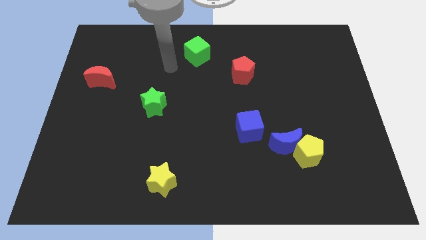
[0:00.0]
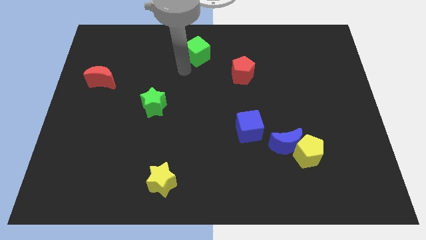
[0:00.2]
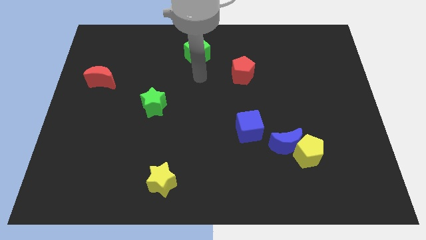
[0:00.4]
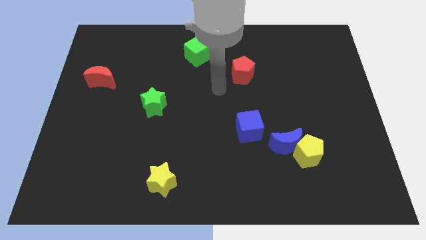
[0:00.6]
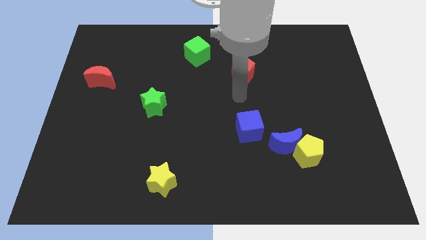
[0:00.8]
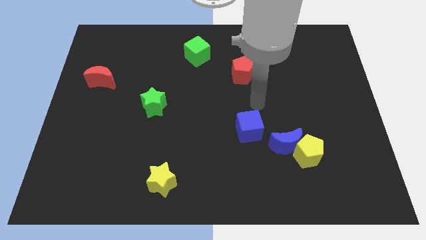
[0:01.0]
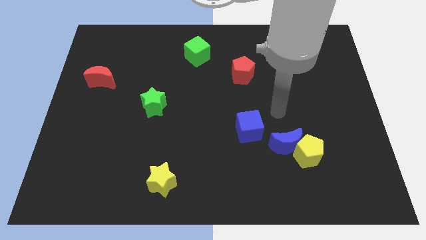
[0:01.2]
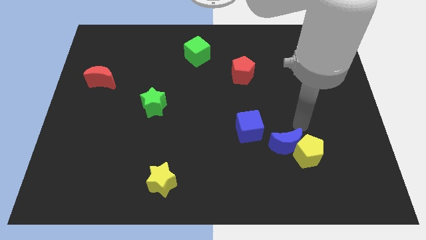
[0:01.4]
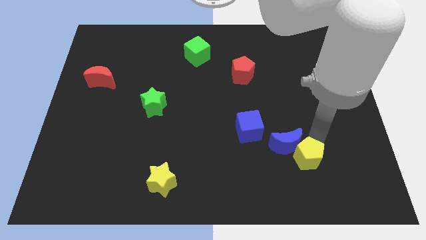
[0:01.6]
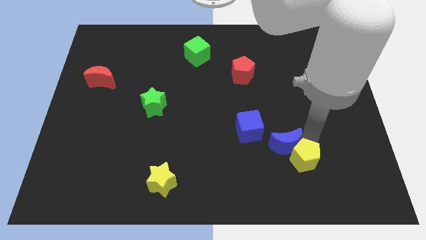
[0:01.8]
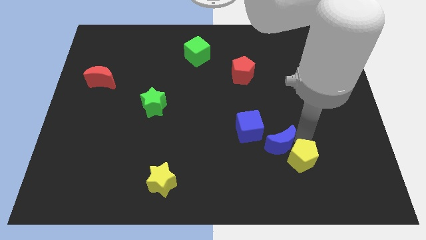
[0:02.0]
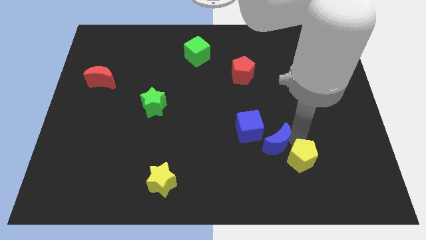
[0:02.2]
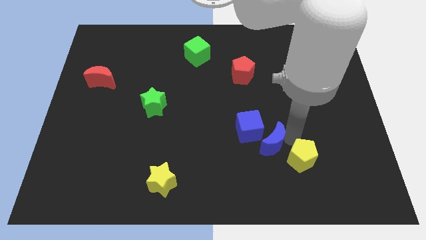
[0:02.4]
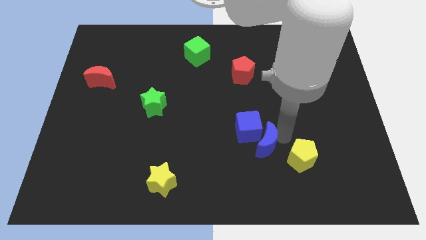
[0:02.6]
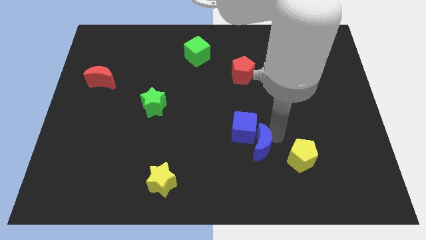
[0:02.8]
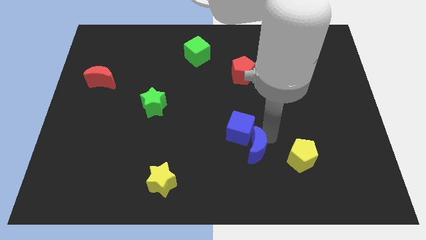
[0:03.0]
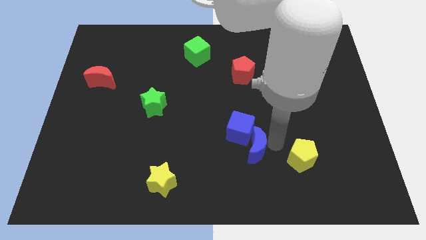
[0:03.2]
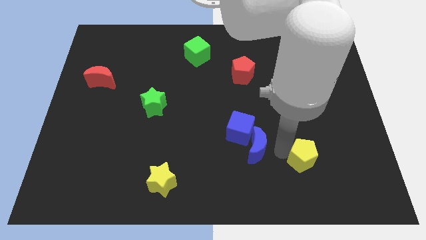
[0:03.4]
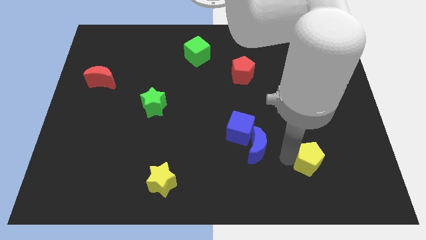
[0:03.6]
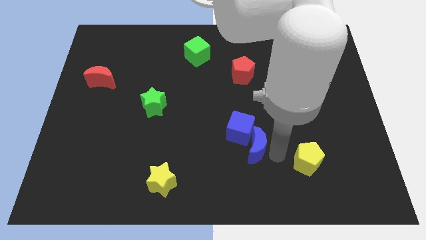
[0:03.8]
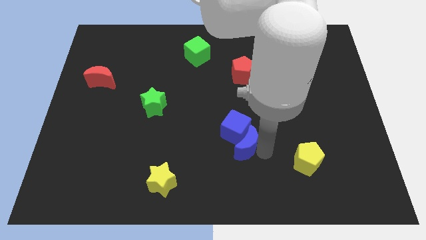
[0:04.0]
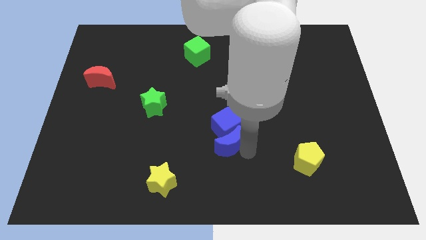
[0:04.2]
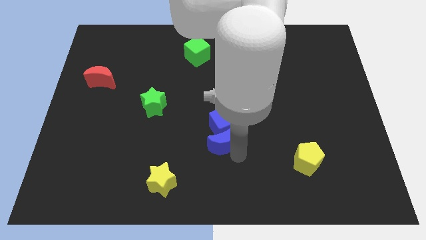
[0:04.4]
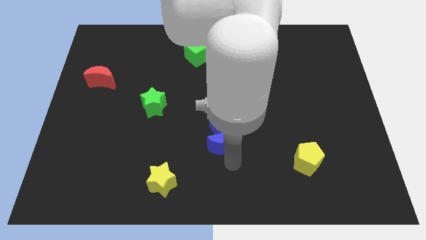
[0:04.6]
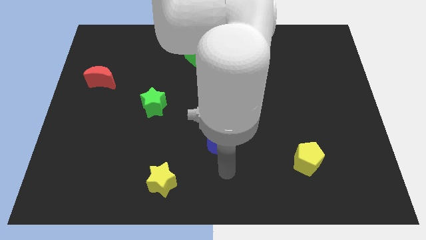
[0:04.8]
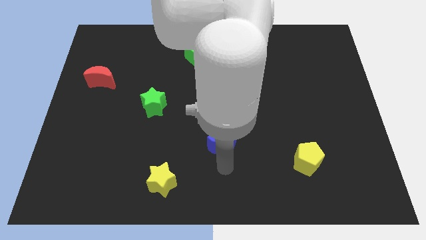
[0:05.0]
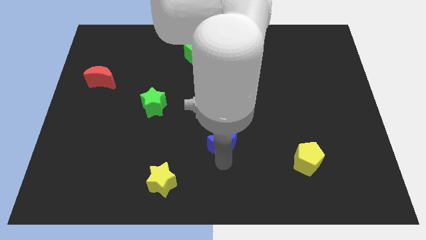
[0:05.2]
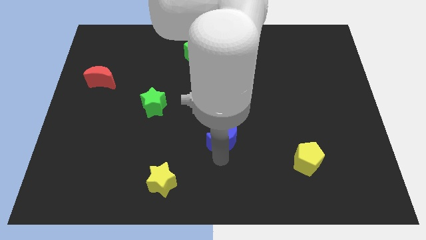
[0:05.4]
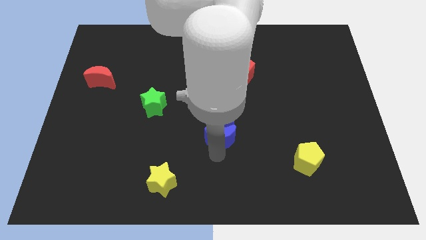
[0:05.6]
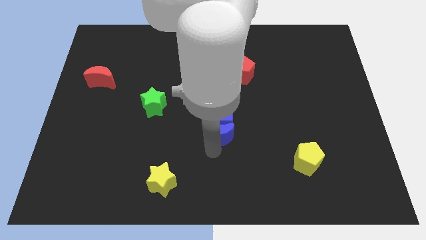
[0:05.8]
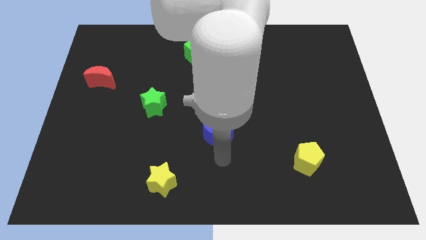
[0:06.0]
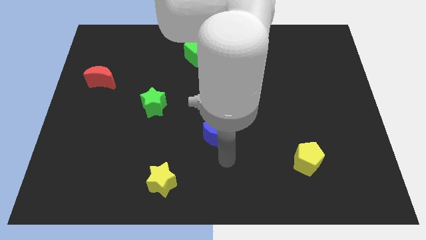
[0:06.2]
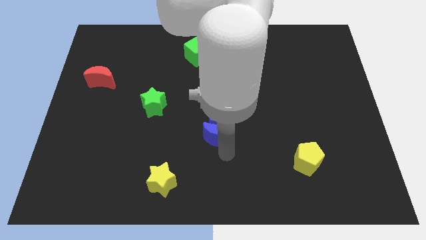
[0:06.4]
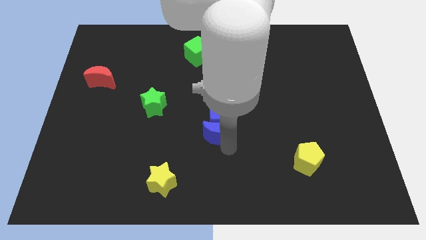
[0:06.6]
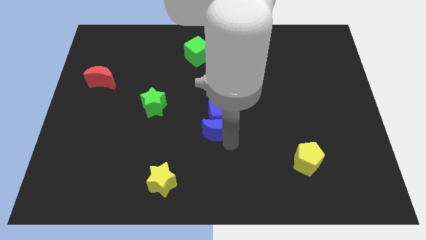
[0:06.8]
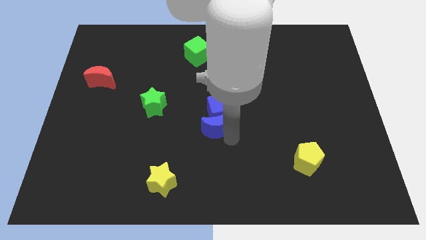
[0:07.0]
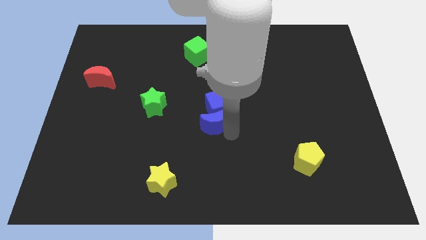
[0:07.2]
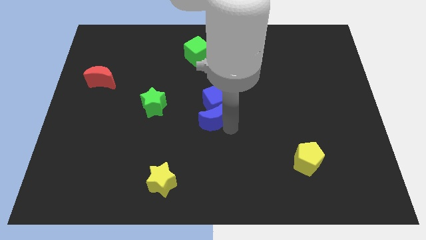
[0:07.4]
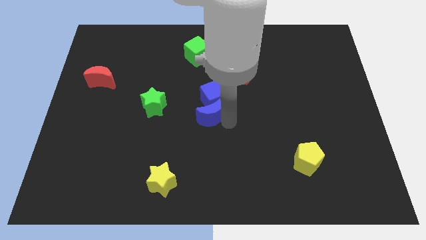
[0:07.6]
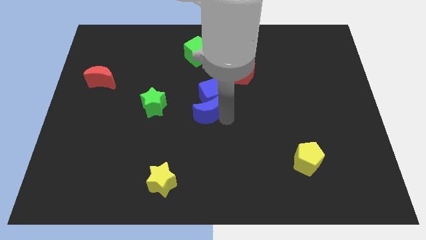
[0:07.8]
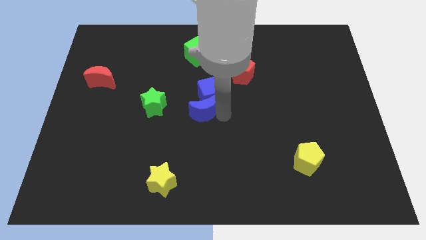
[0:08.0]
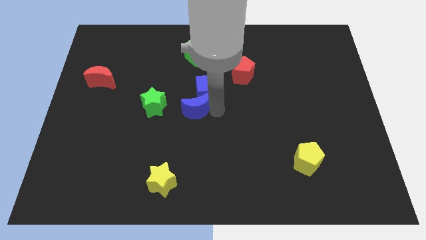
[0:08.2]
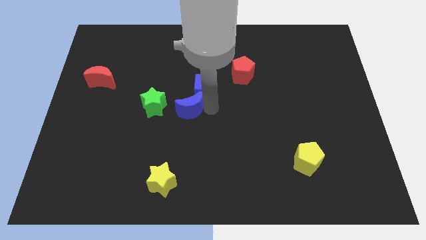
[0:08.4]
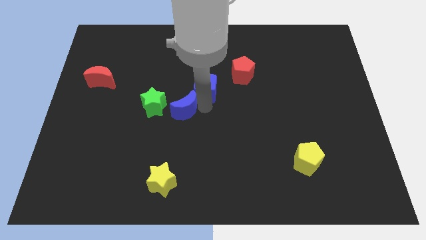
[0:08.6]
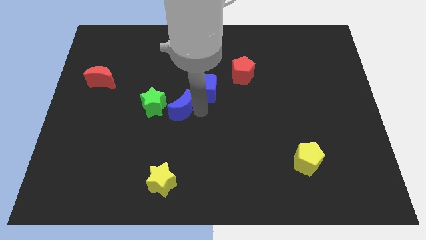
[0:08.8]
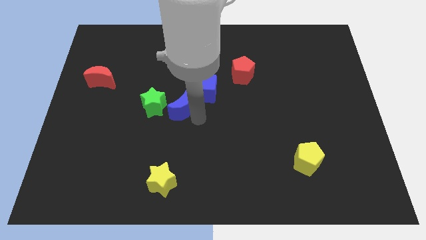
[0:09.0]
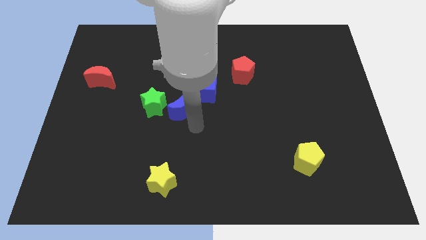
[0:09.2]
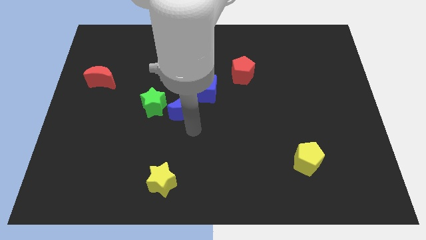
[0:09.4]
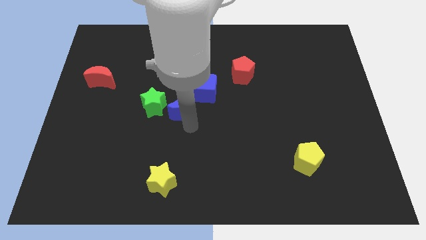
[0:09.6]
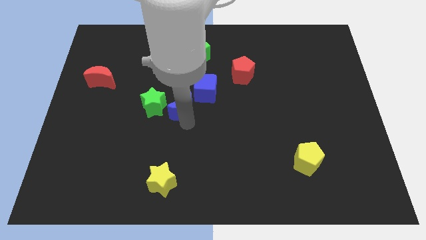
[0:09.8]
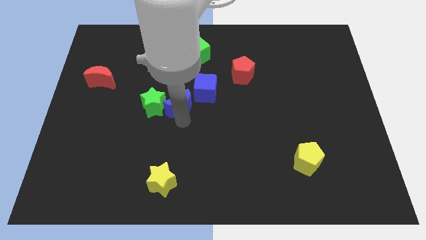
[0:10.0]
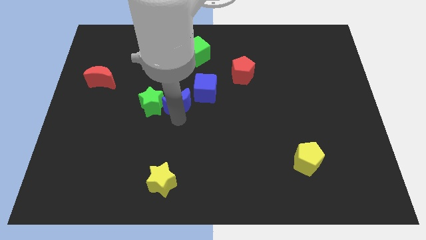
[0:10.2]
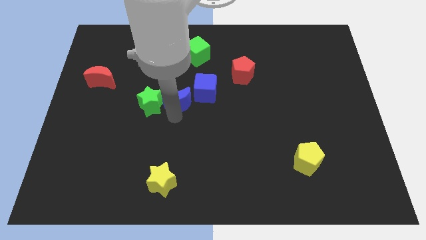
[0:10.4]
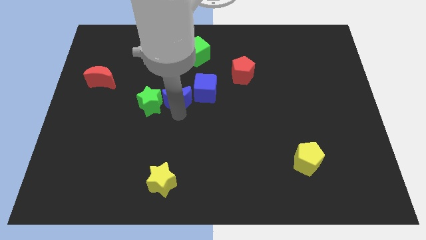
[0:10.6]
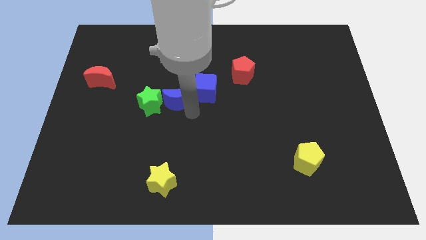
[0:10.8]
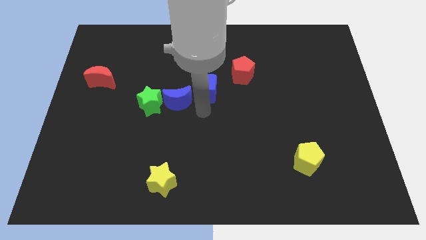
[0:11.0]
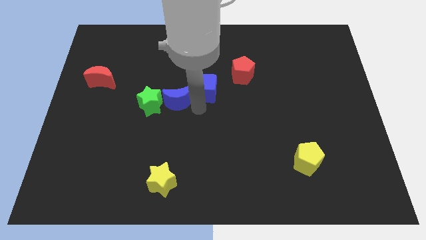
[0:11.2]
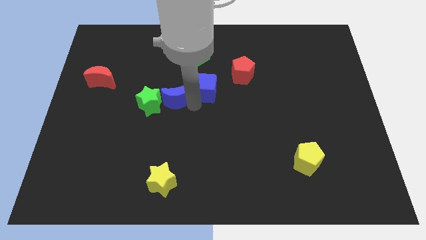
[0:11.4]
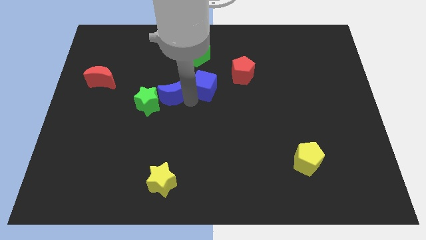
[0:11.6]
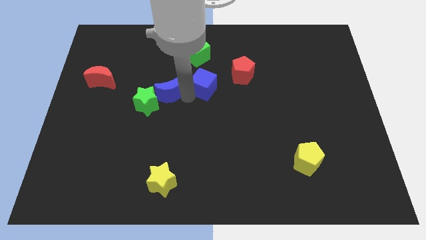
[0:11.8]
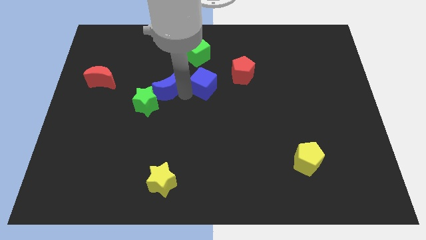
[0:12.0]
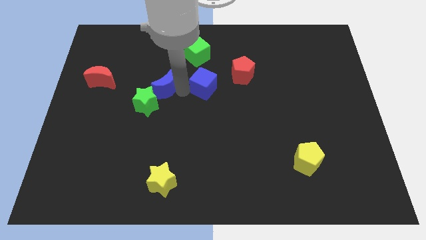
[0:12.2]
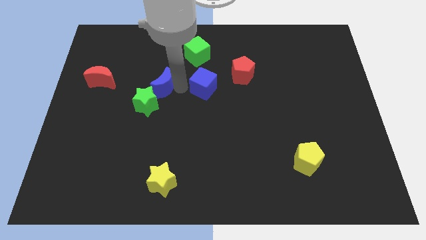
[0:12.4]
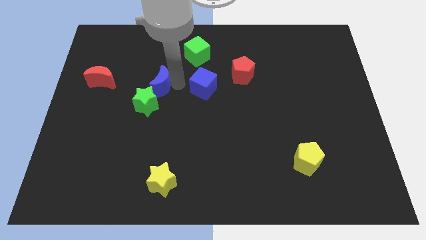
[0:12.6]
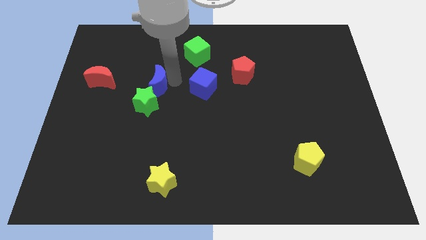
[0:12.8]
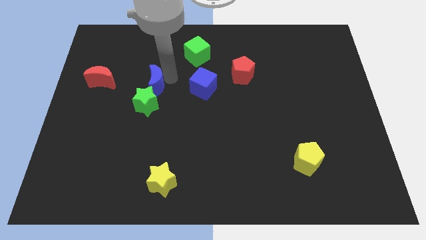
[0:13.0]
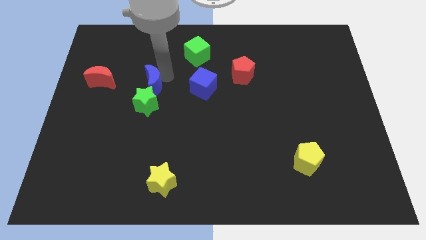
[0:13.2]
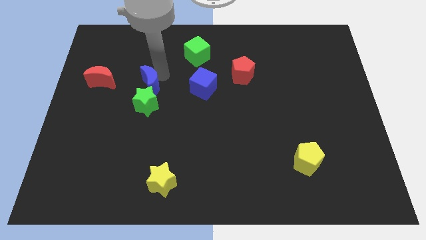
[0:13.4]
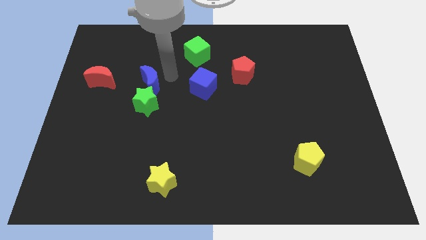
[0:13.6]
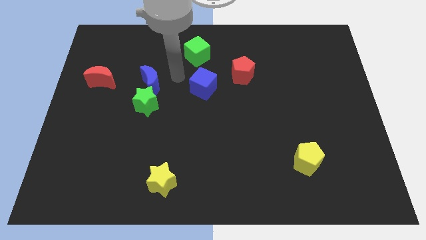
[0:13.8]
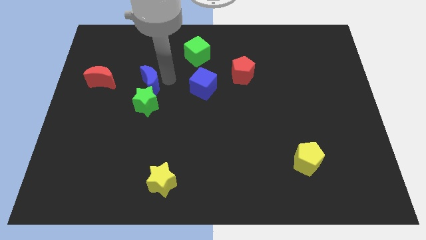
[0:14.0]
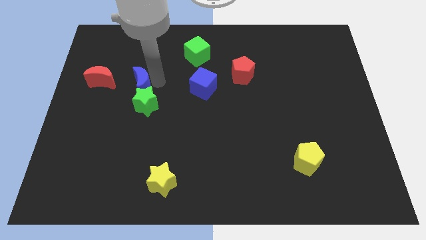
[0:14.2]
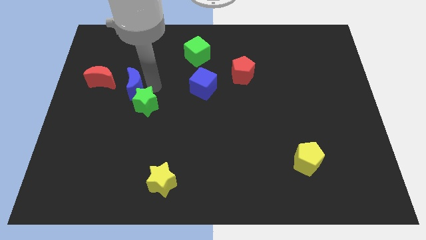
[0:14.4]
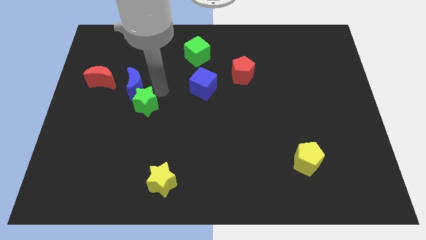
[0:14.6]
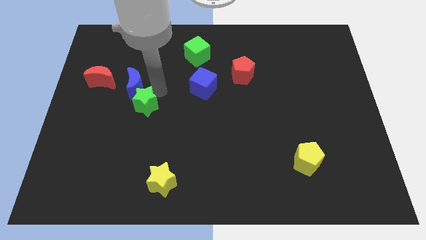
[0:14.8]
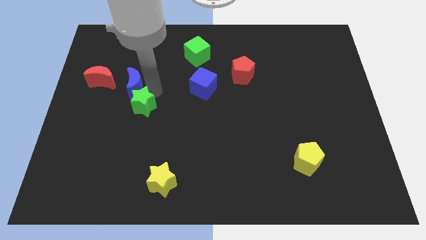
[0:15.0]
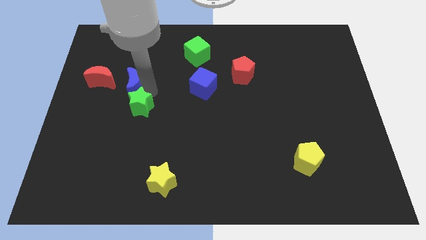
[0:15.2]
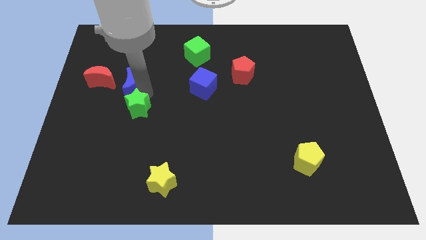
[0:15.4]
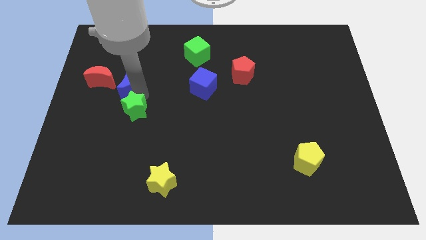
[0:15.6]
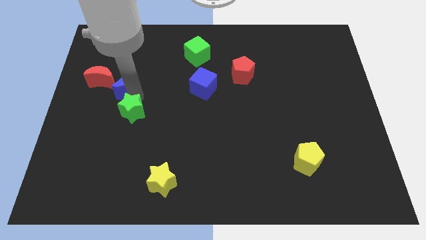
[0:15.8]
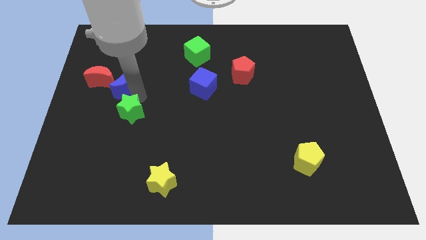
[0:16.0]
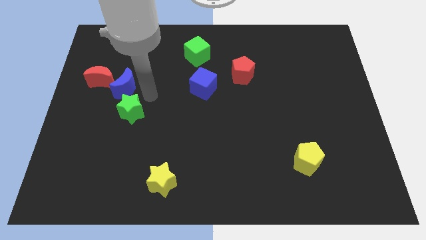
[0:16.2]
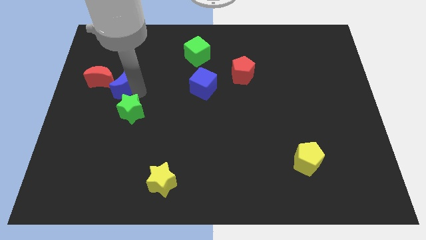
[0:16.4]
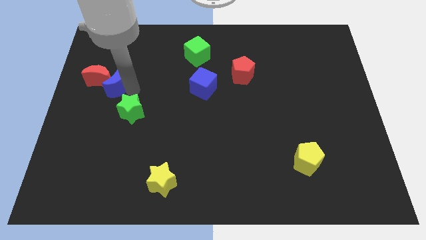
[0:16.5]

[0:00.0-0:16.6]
put the blue moon next to the red moon
